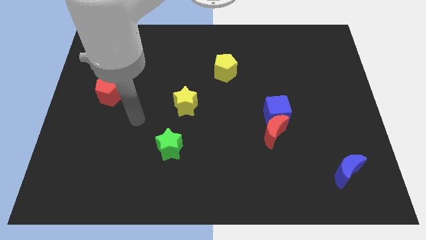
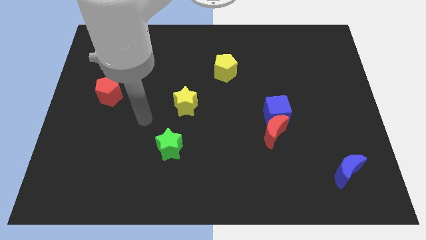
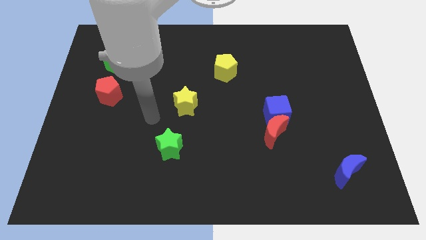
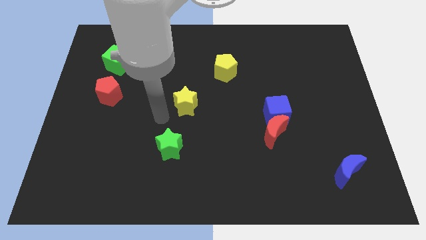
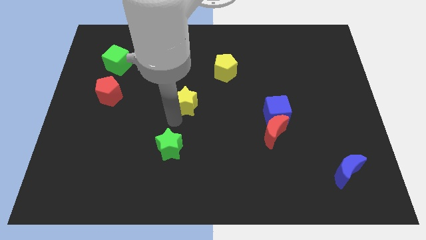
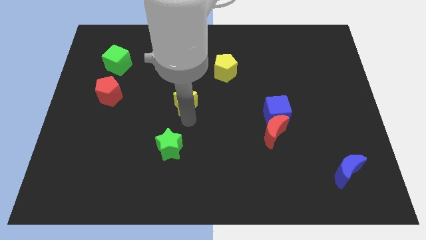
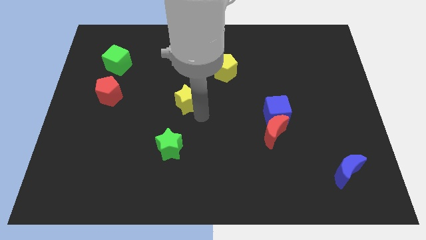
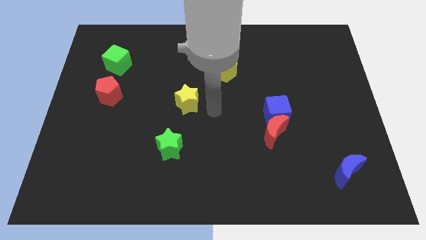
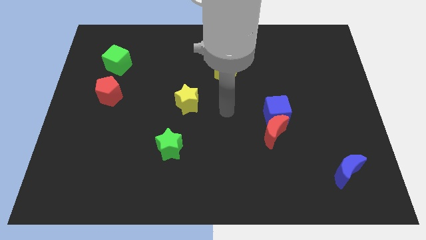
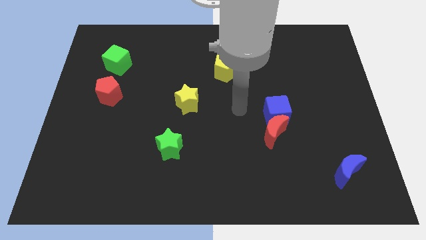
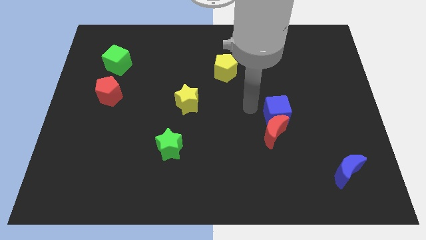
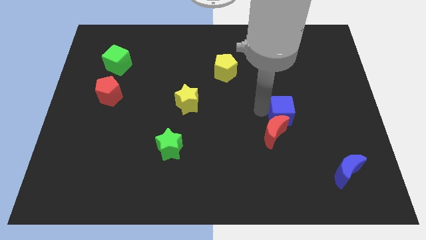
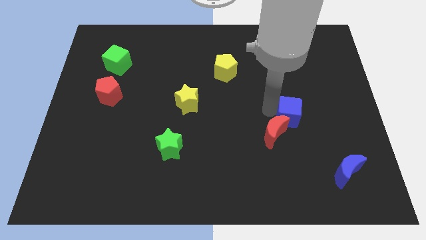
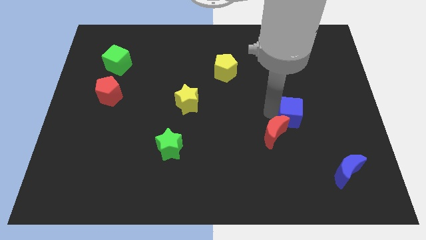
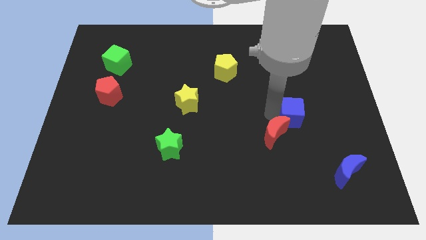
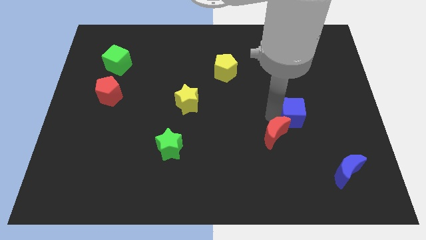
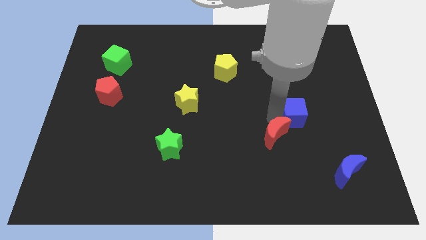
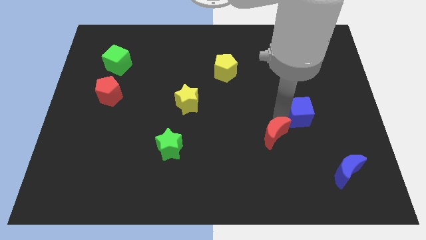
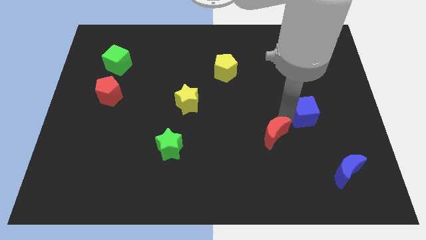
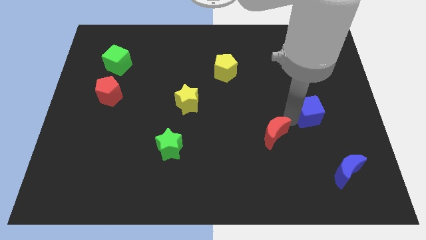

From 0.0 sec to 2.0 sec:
pull the red moon apart from the blue cube

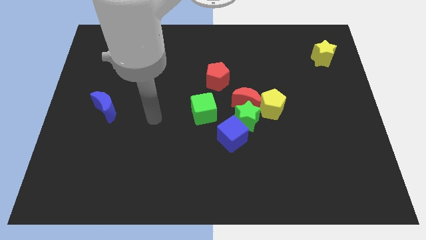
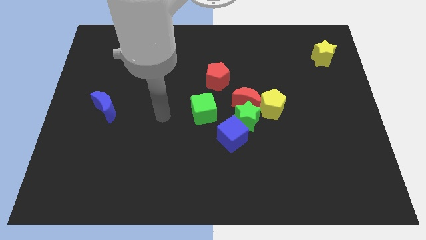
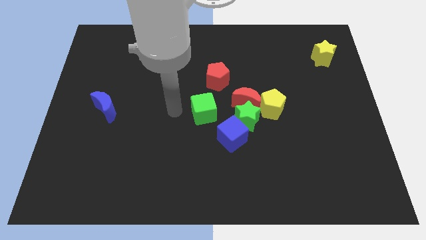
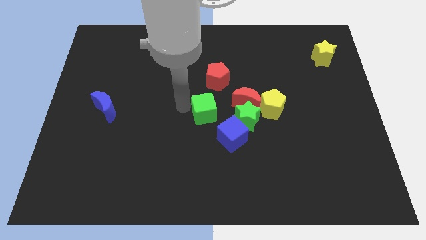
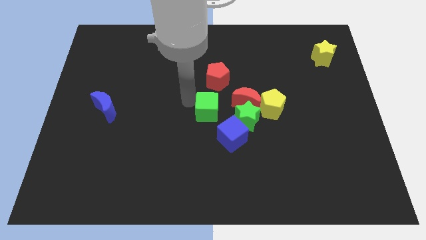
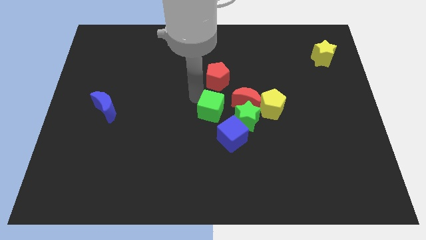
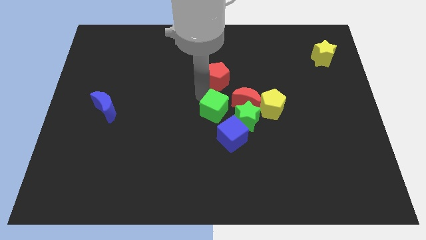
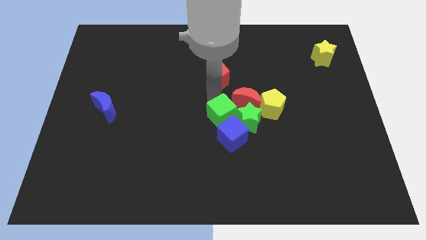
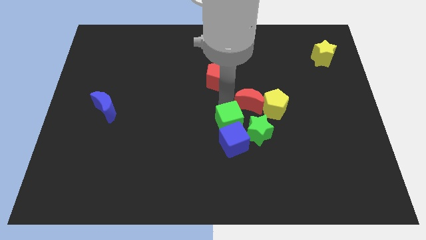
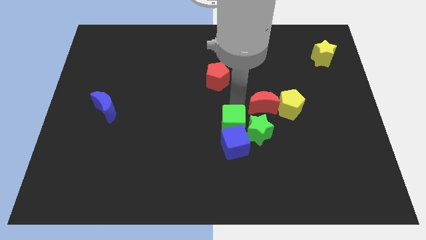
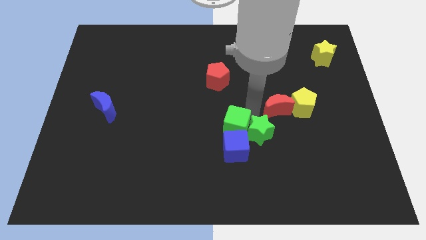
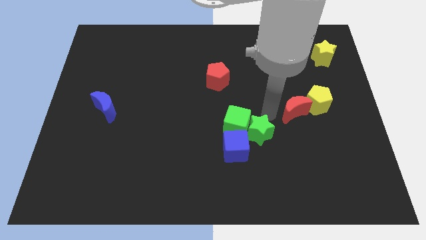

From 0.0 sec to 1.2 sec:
move the yellow pentagon away from the red moon and green star

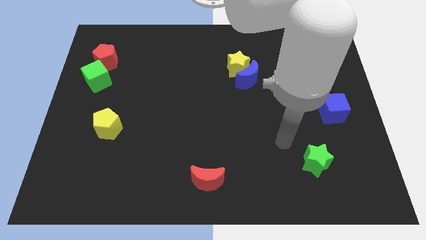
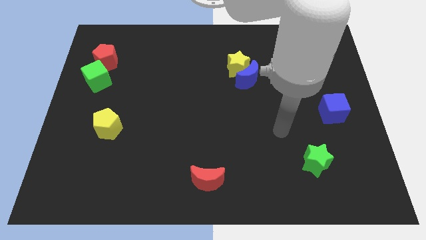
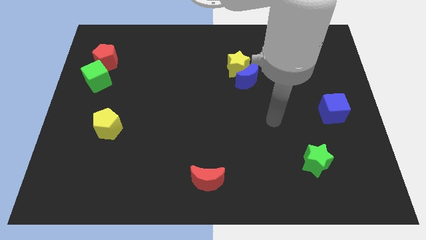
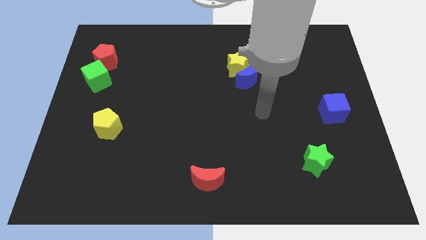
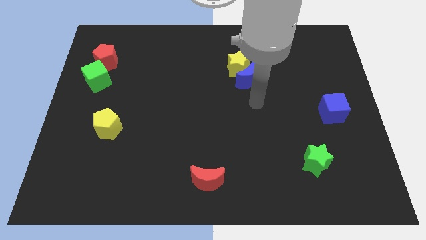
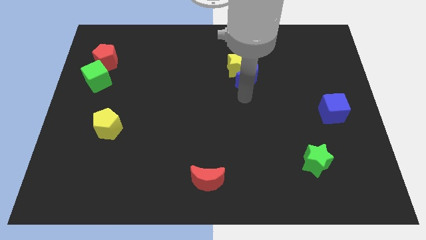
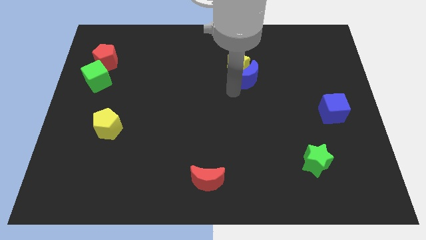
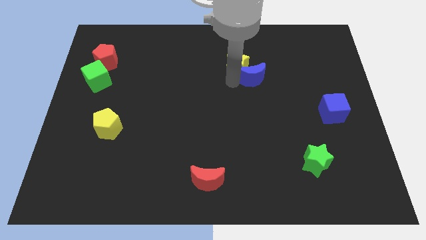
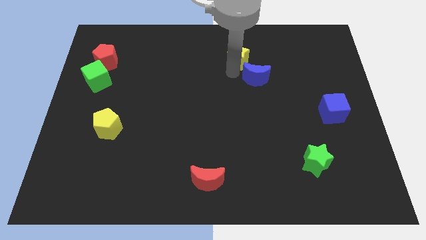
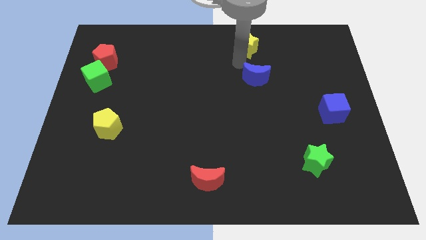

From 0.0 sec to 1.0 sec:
pull the blue moon apart from the yellow star

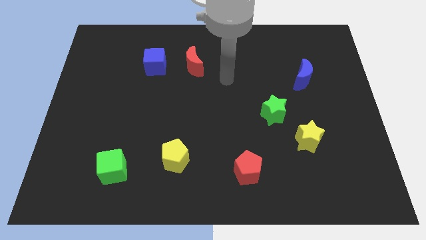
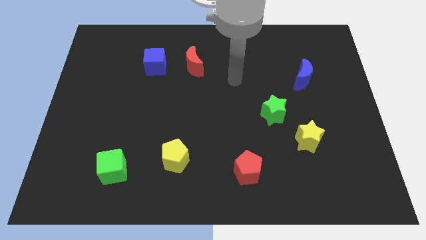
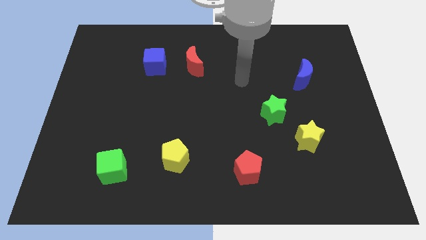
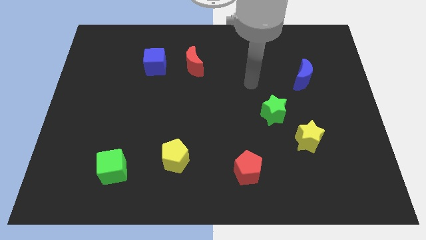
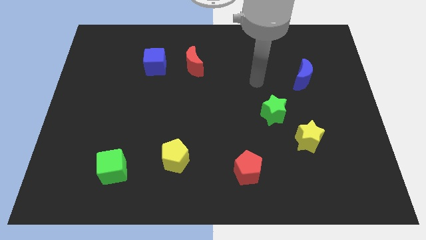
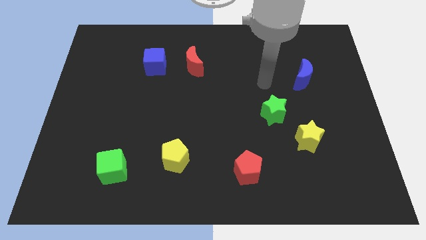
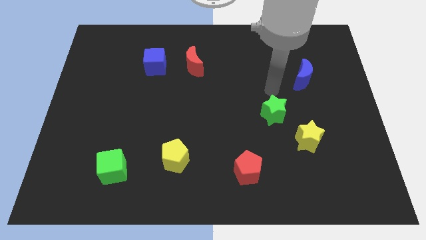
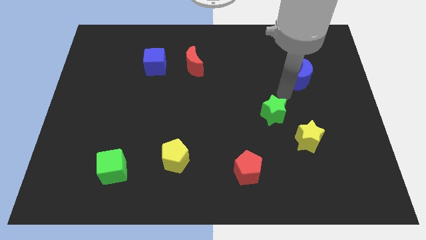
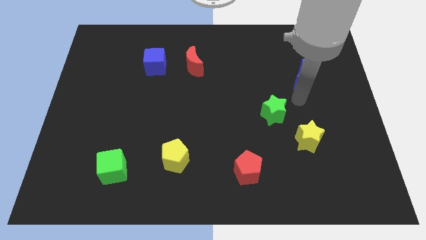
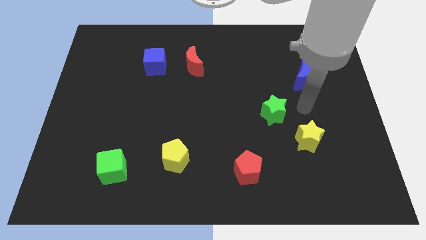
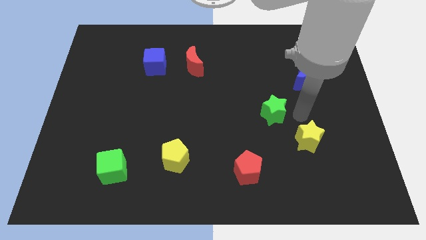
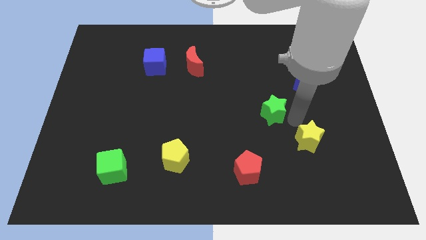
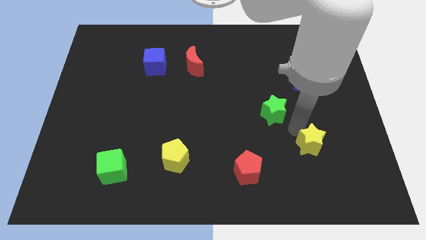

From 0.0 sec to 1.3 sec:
move the green star away from the yellow star

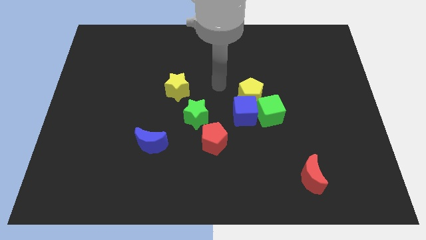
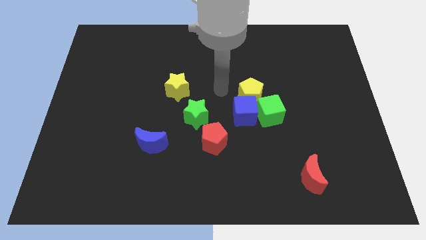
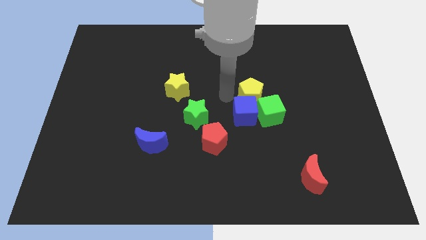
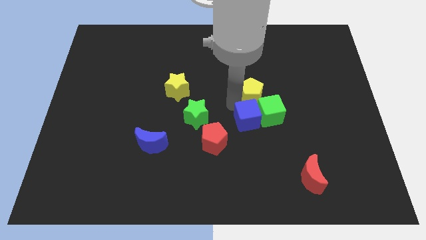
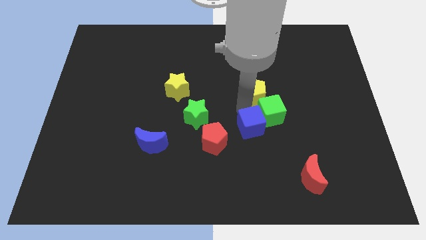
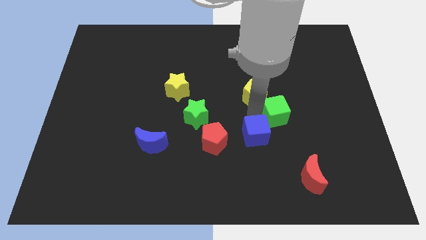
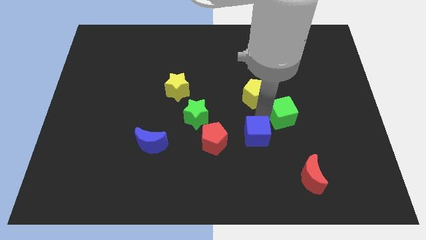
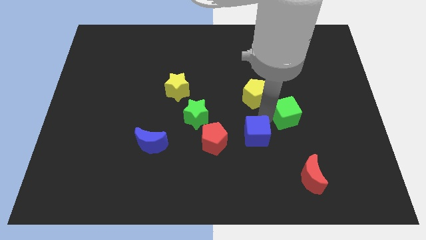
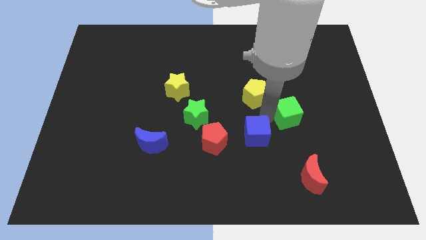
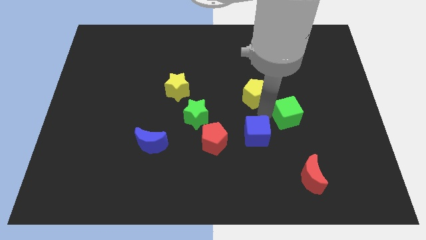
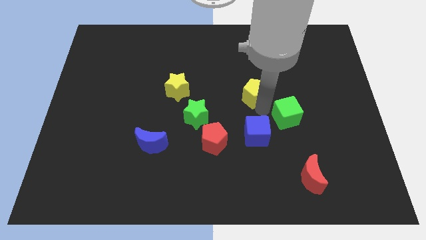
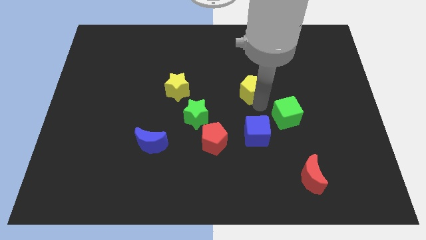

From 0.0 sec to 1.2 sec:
move the yellow pentagon away from the blue cube and green cube

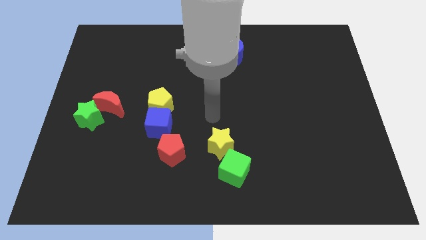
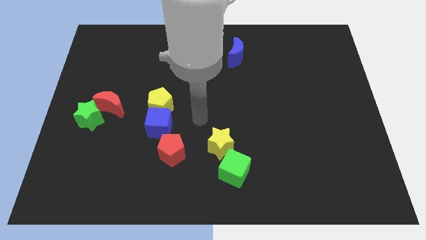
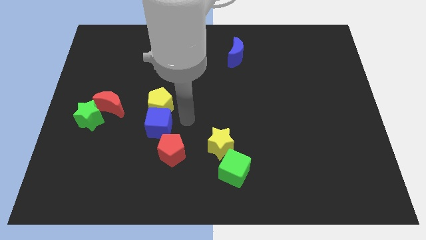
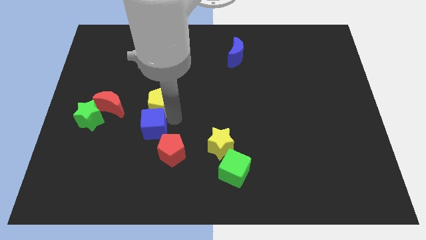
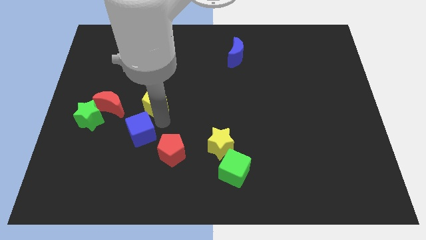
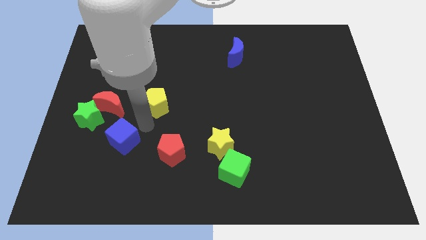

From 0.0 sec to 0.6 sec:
pull the yellow pentagon apart from the blue cube

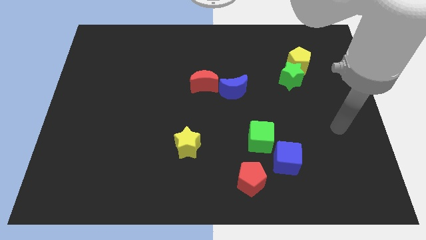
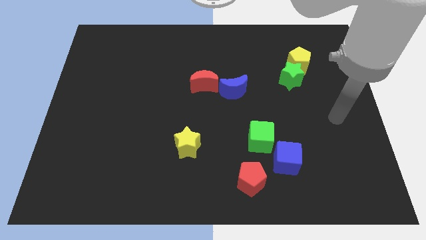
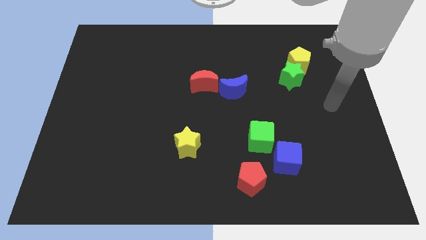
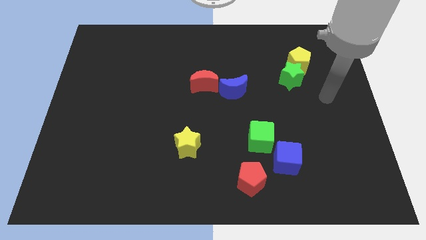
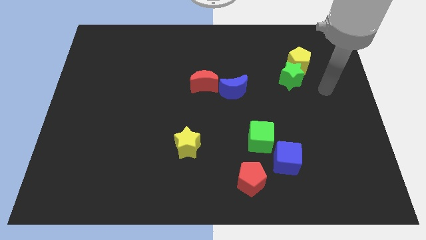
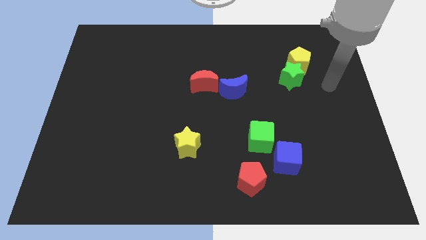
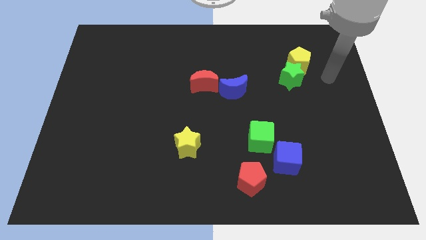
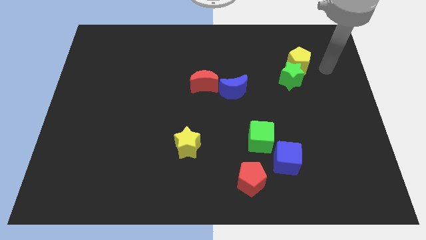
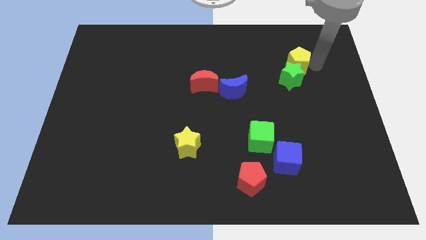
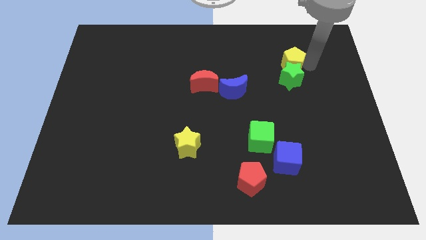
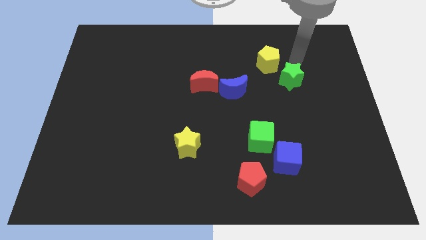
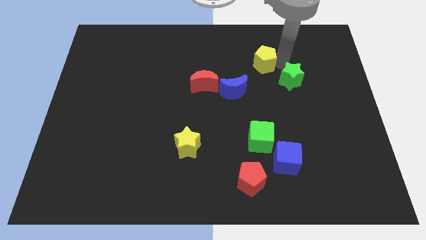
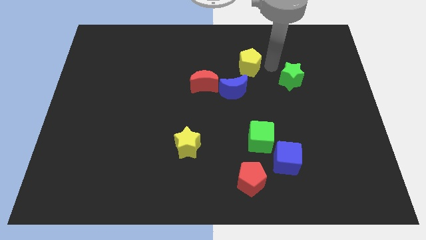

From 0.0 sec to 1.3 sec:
separate the green star from the yellow pentagon

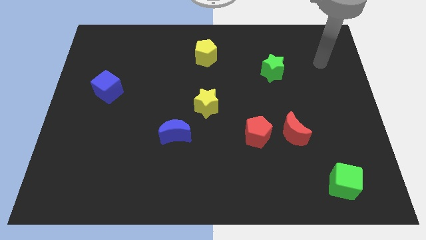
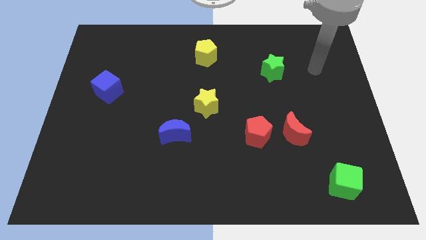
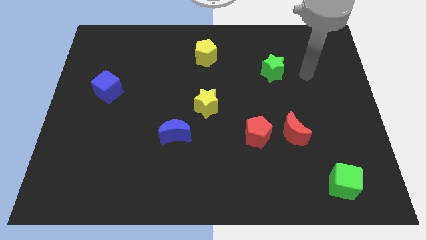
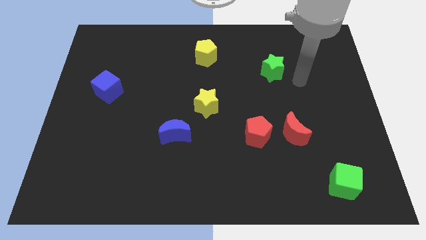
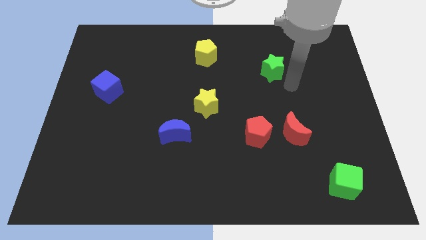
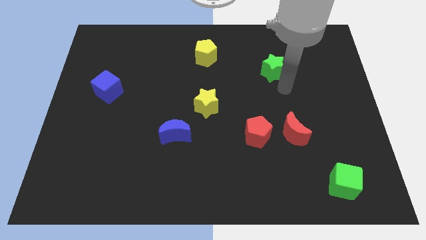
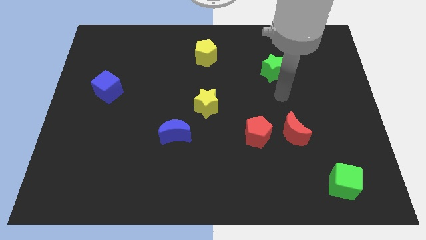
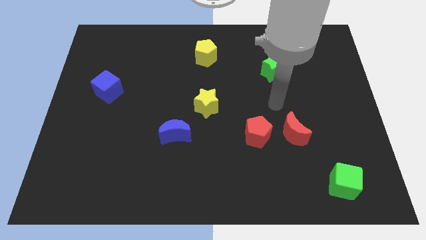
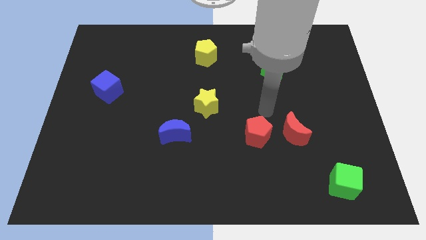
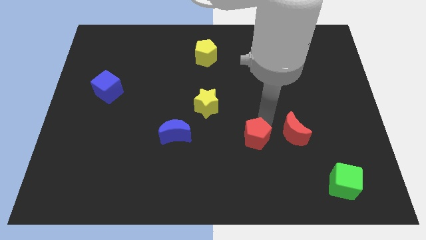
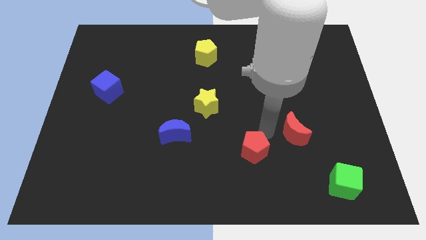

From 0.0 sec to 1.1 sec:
move the red moon away from the red pentagon
